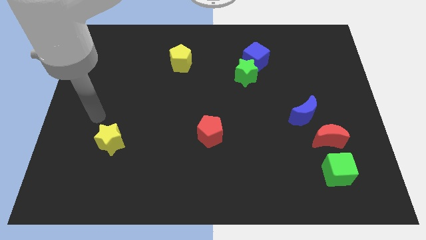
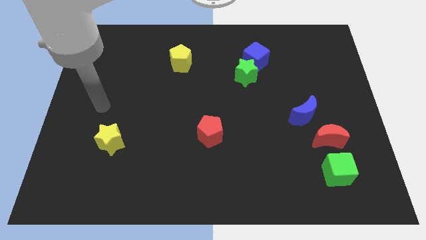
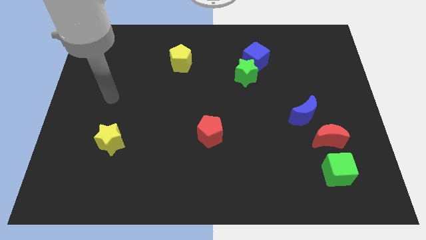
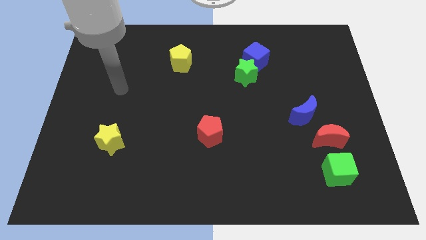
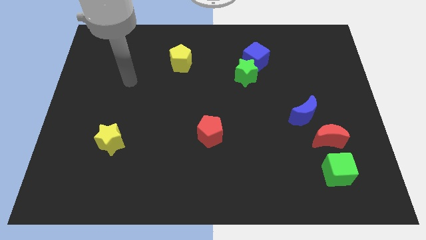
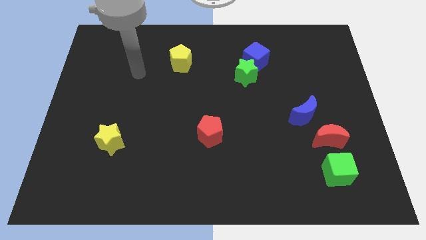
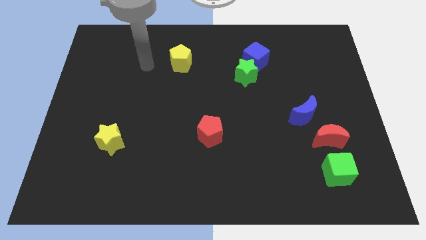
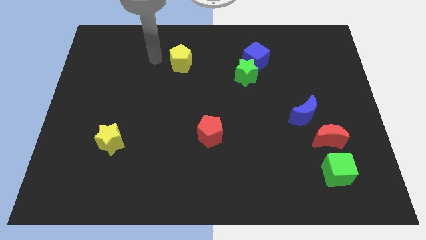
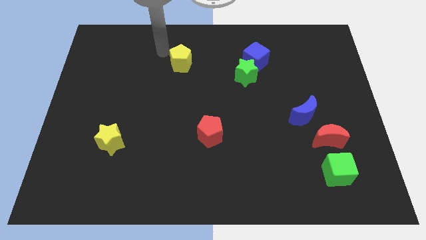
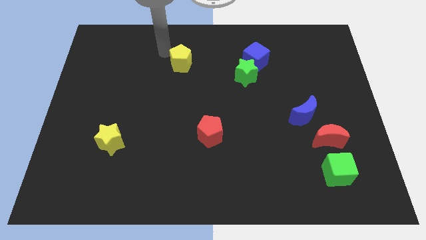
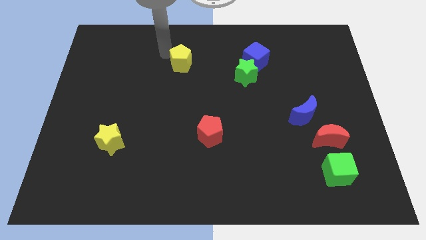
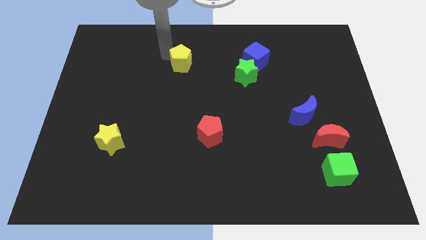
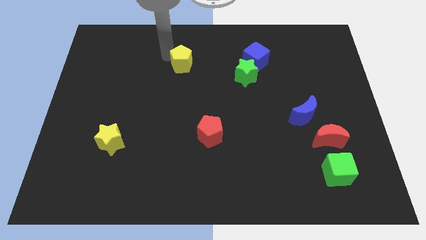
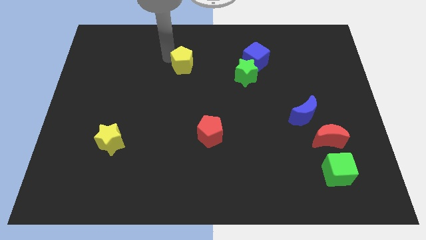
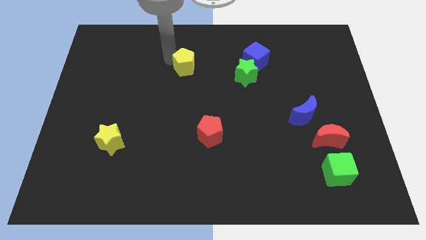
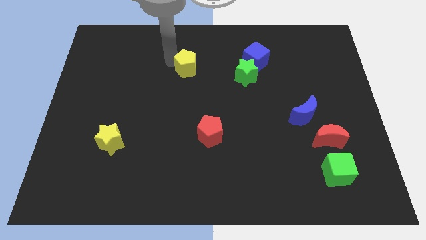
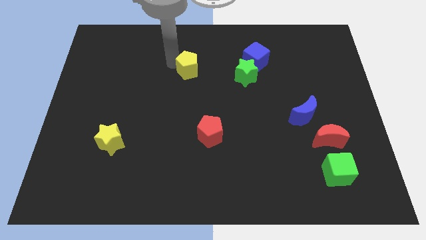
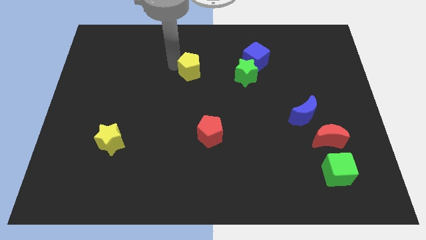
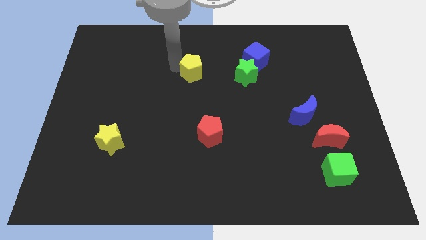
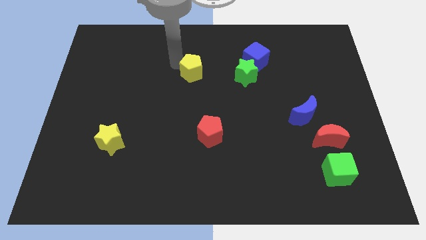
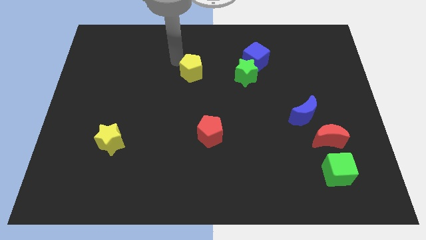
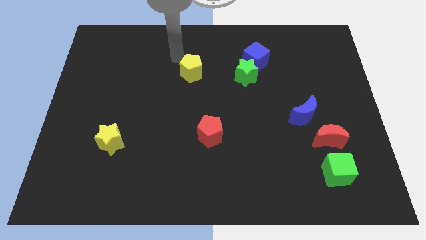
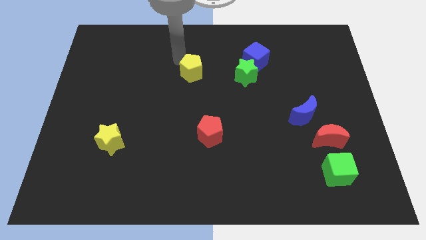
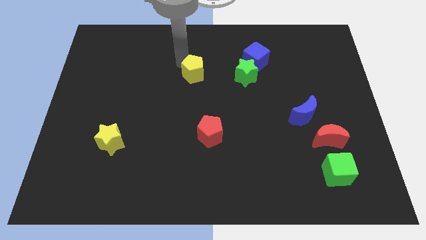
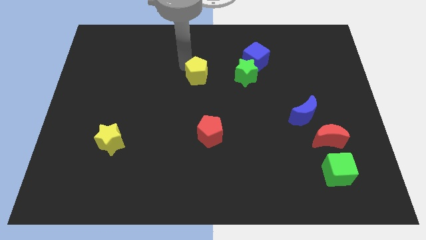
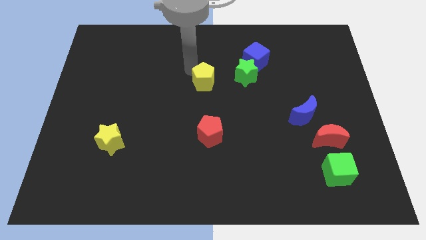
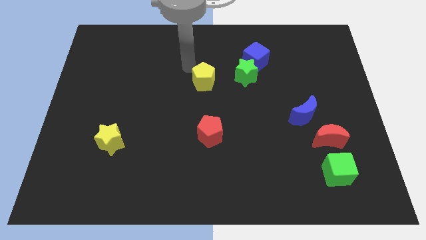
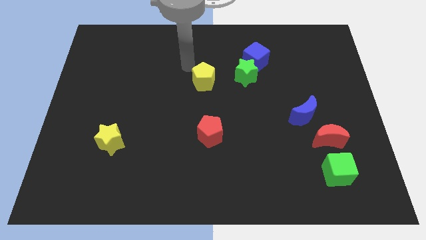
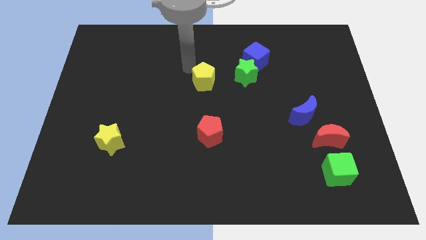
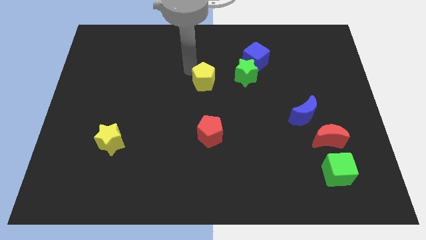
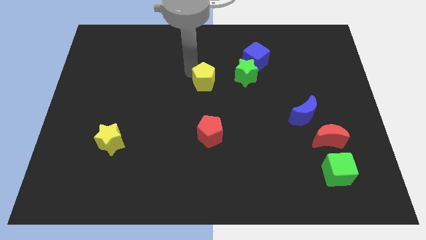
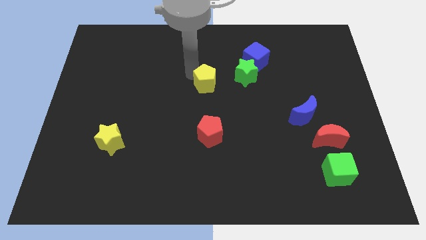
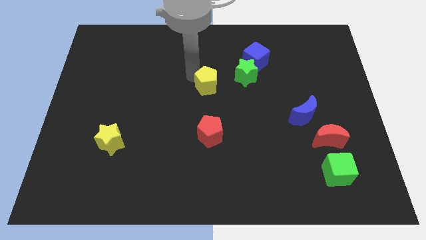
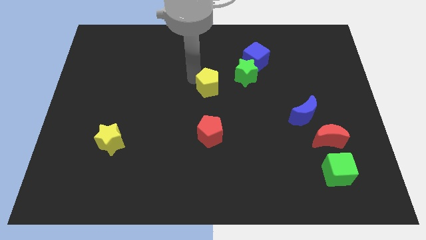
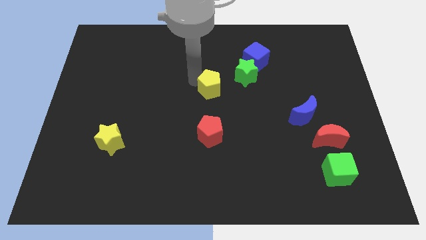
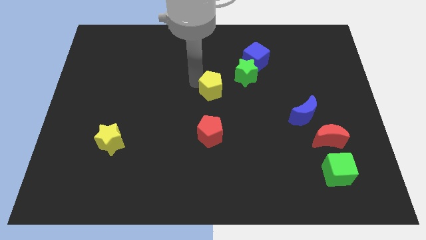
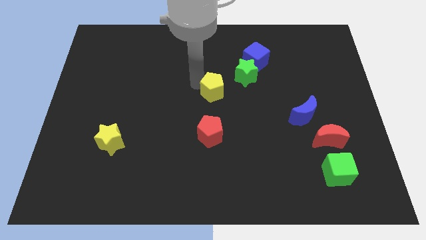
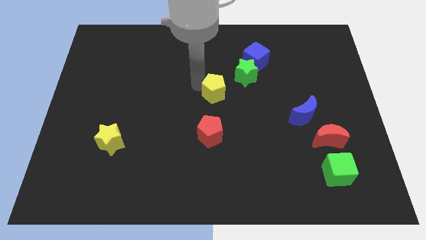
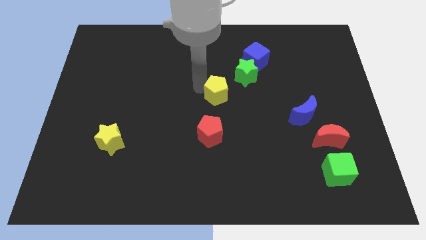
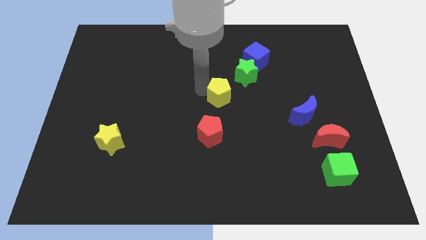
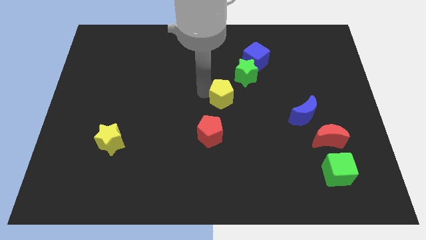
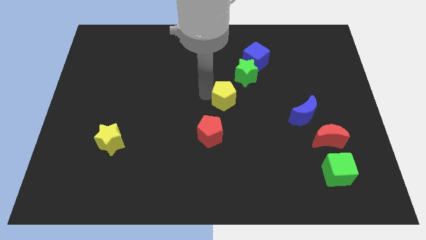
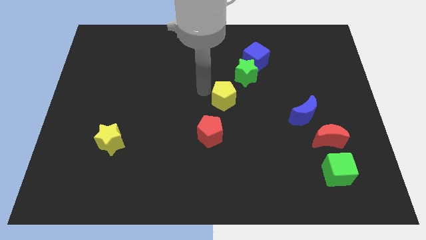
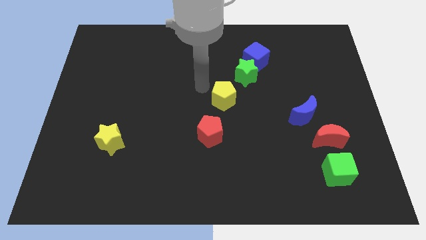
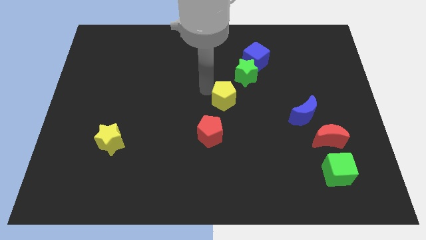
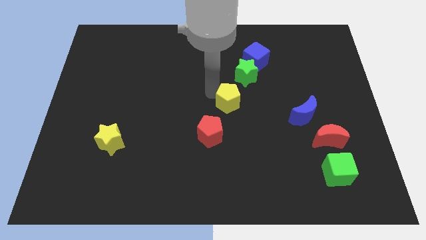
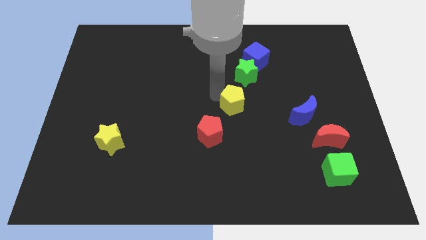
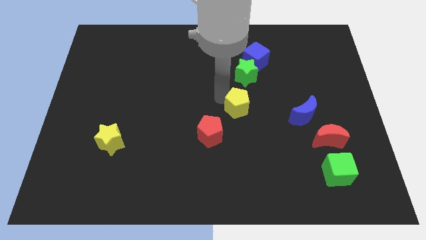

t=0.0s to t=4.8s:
slide the yellow pentagon down and right

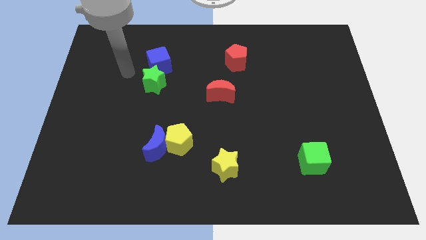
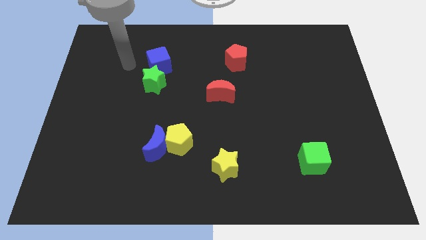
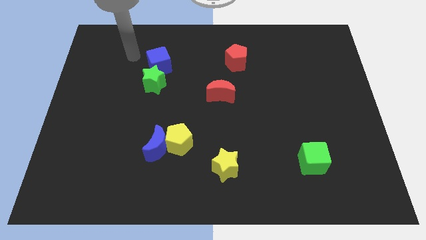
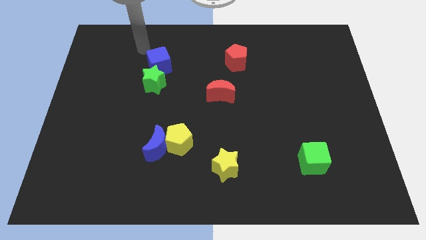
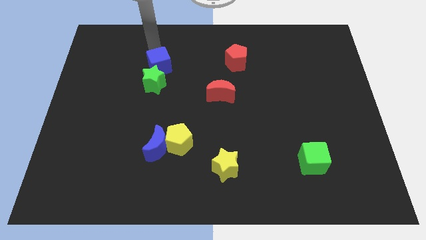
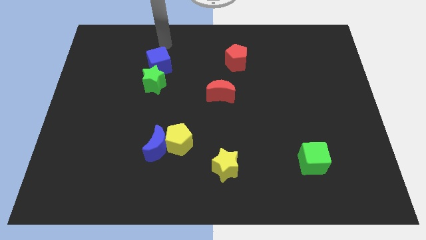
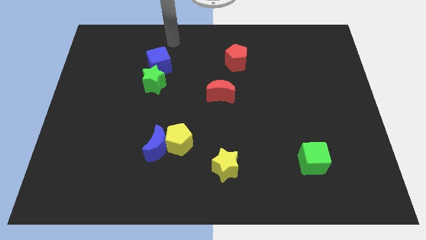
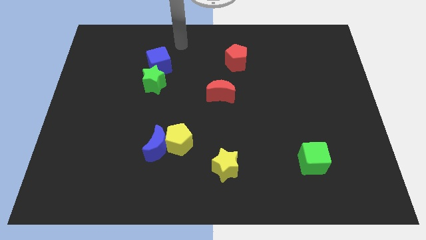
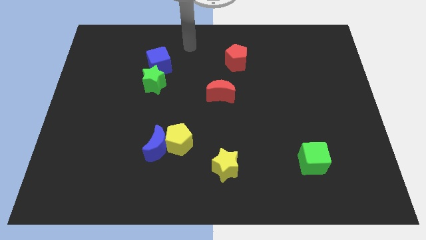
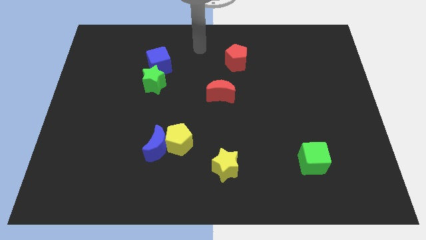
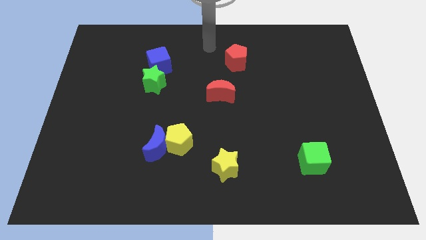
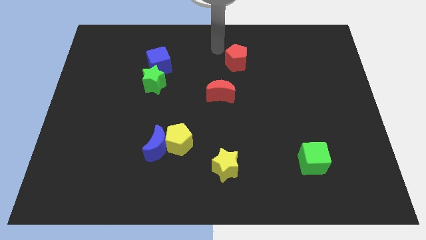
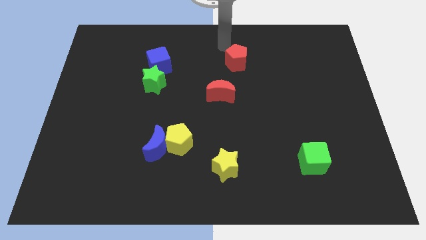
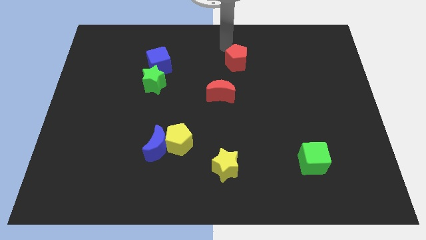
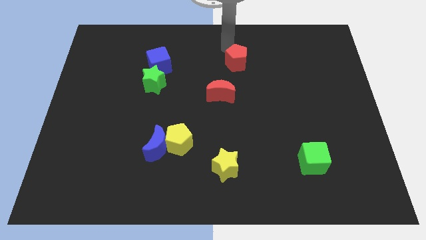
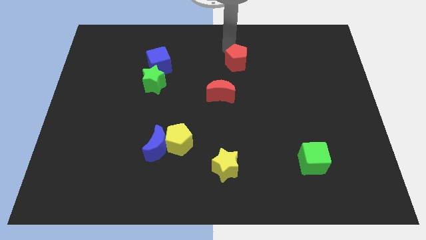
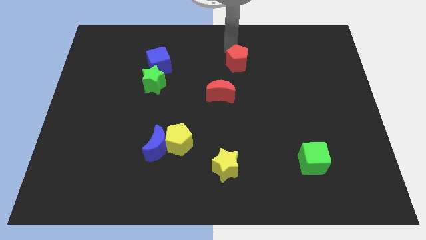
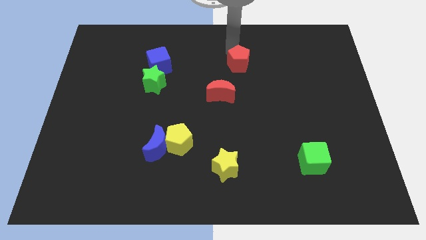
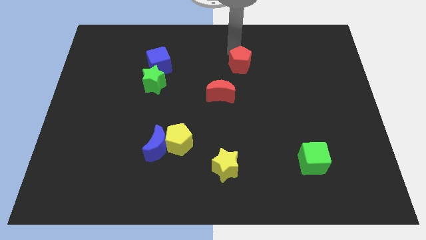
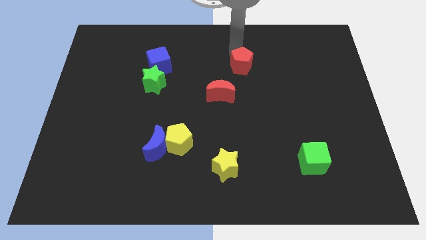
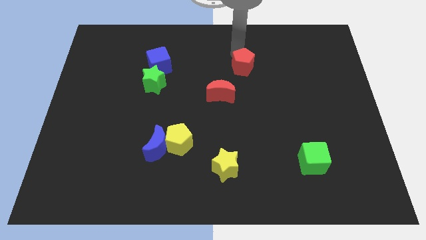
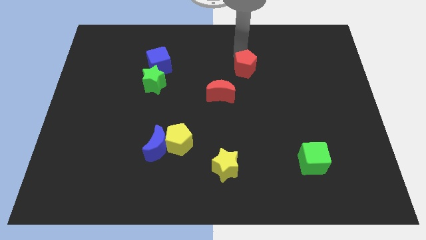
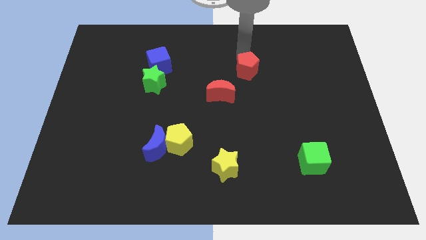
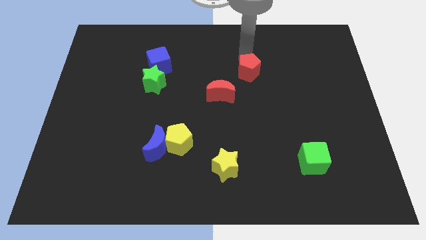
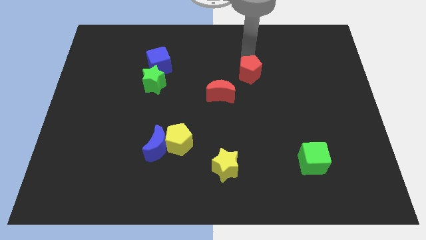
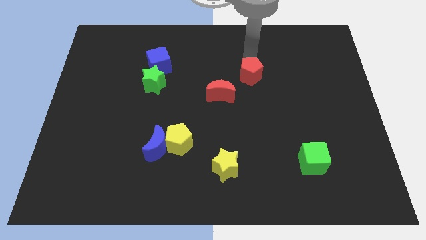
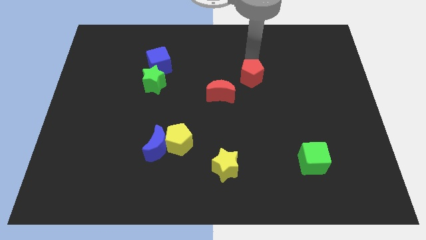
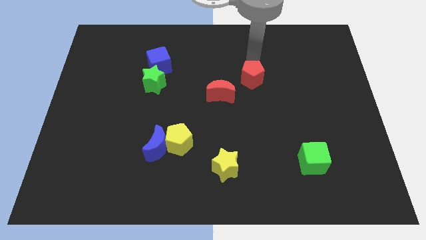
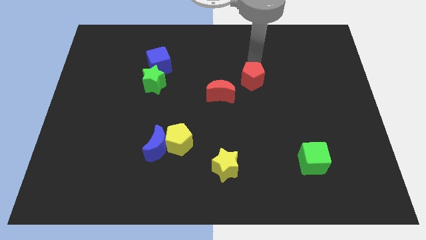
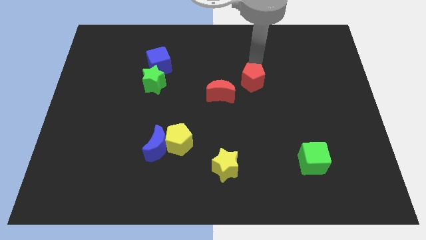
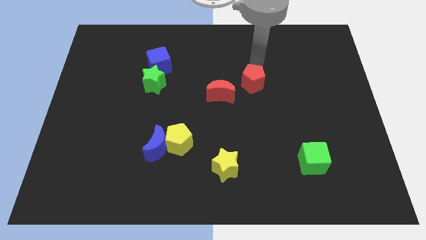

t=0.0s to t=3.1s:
move the red pentagon somewhat down
